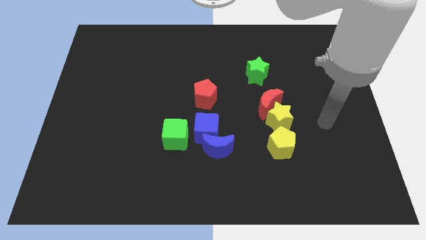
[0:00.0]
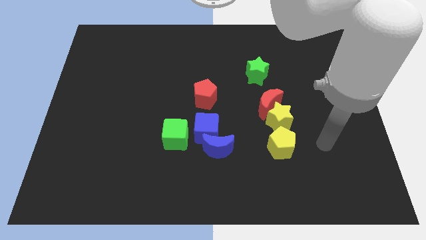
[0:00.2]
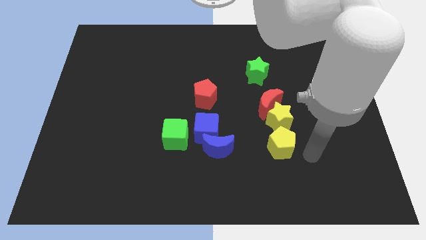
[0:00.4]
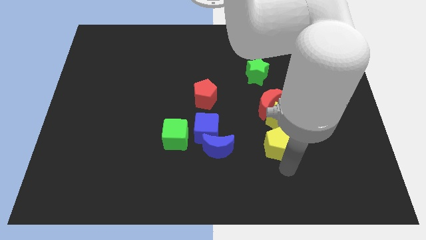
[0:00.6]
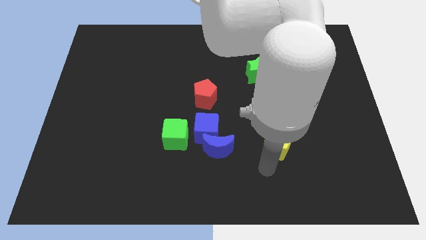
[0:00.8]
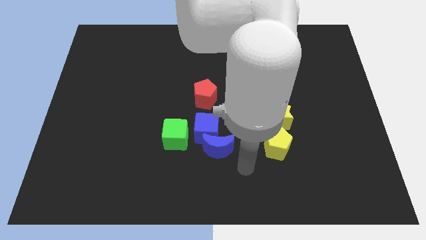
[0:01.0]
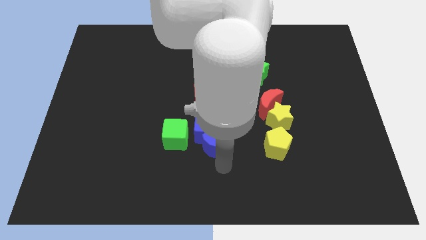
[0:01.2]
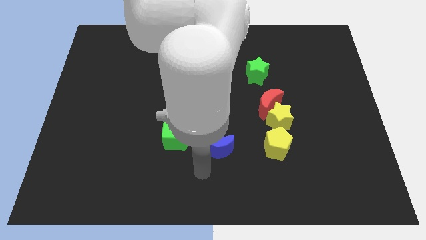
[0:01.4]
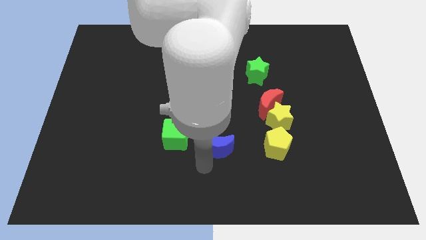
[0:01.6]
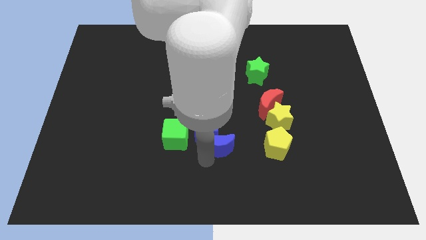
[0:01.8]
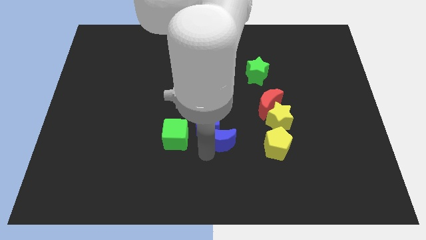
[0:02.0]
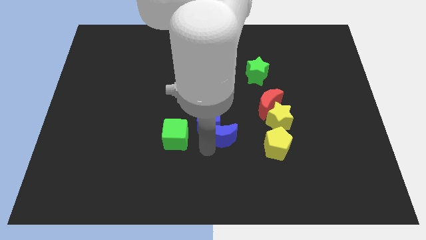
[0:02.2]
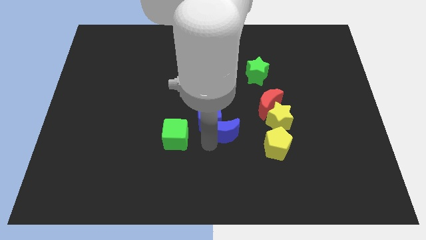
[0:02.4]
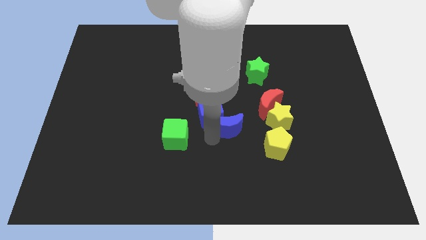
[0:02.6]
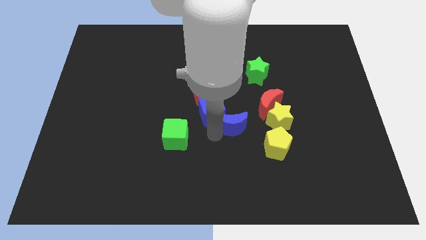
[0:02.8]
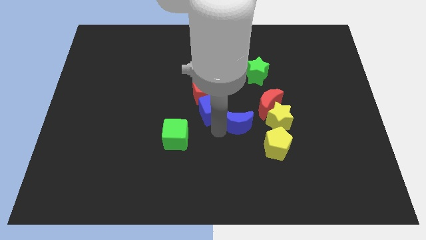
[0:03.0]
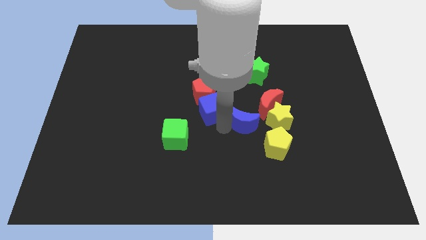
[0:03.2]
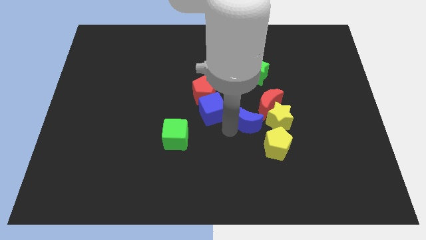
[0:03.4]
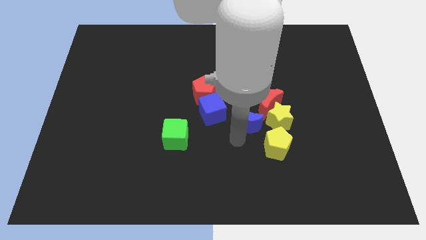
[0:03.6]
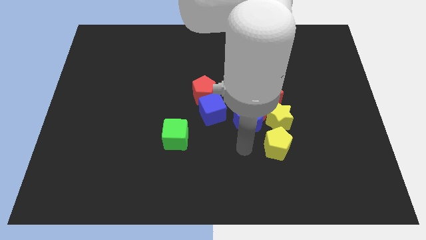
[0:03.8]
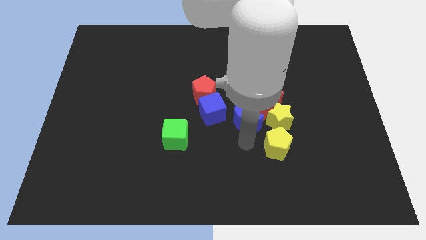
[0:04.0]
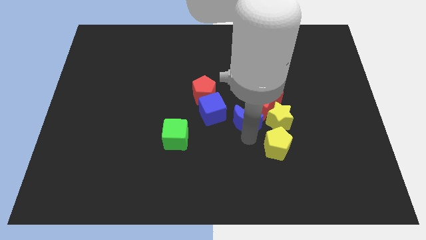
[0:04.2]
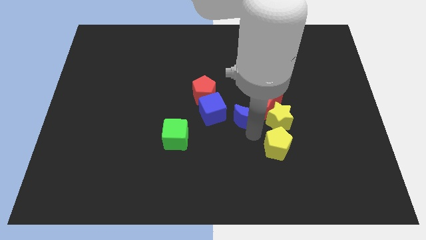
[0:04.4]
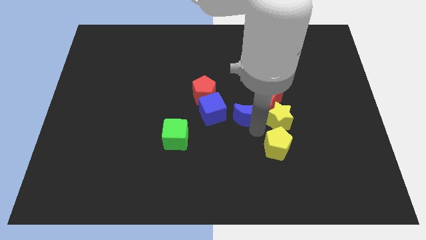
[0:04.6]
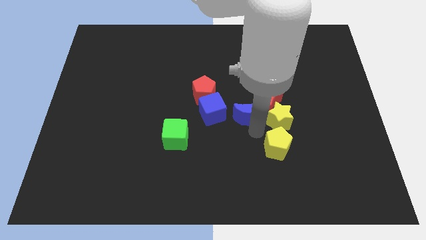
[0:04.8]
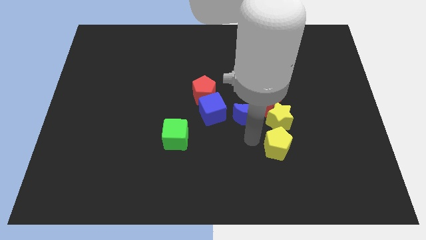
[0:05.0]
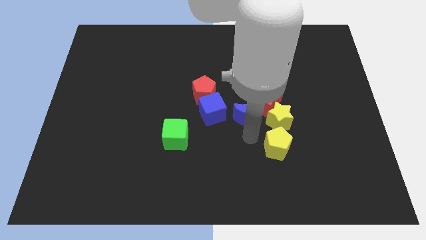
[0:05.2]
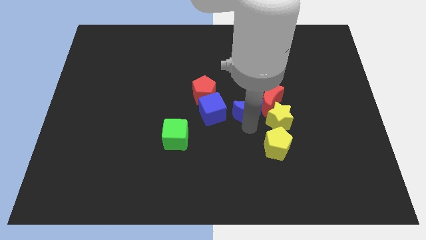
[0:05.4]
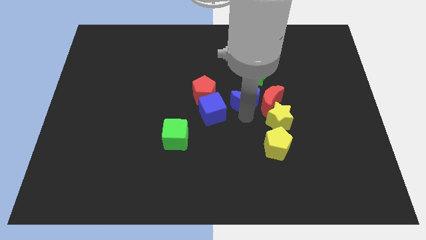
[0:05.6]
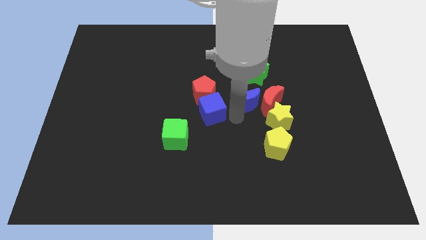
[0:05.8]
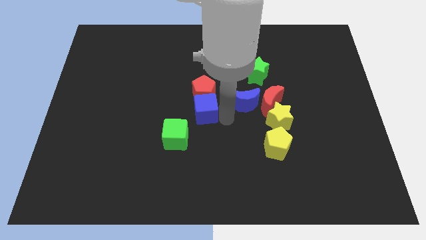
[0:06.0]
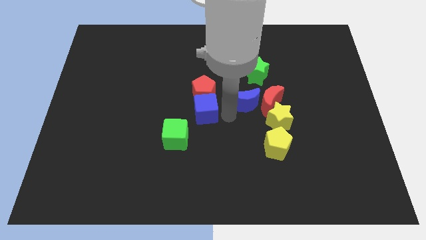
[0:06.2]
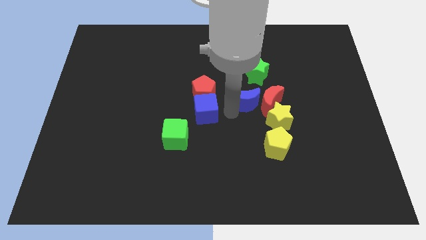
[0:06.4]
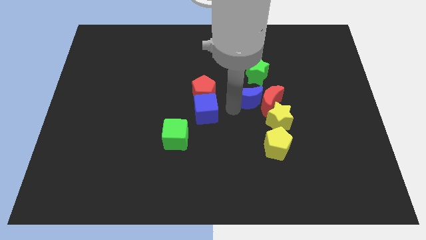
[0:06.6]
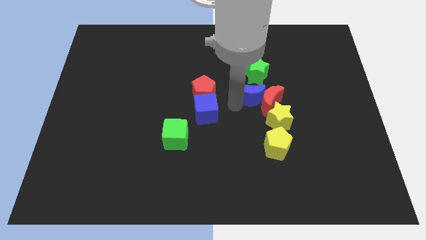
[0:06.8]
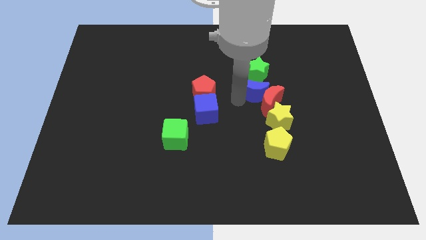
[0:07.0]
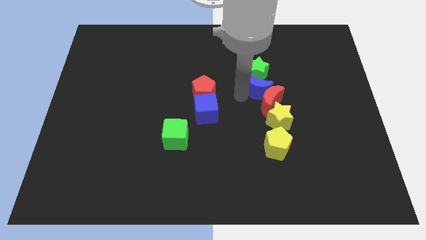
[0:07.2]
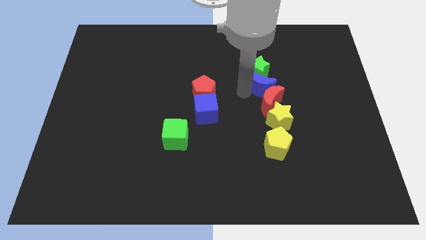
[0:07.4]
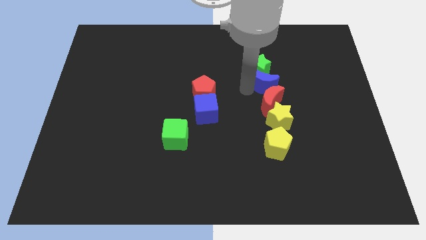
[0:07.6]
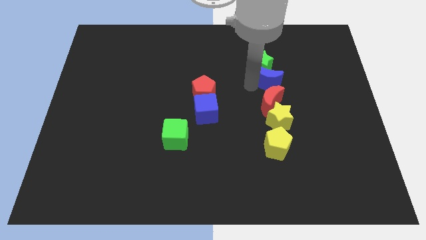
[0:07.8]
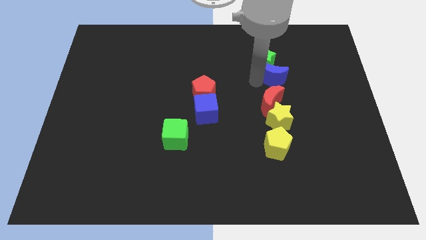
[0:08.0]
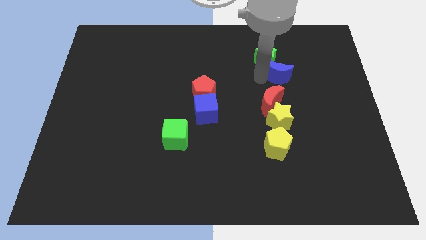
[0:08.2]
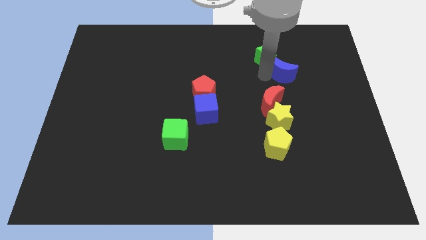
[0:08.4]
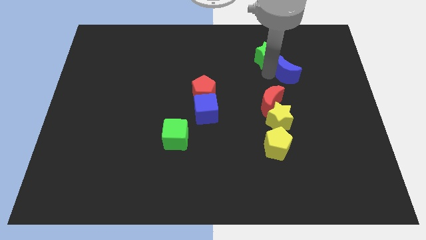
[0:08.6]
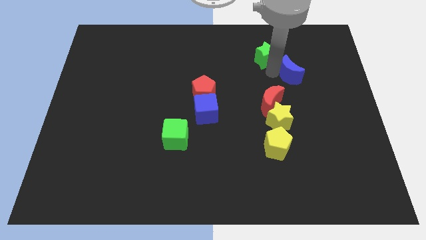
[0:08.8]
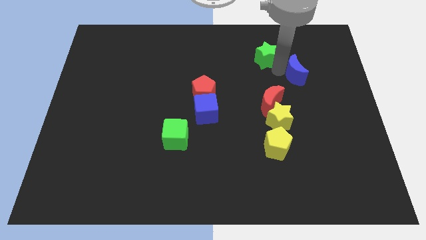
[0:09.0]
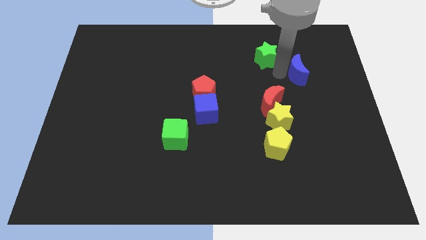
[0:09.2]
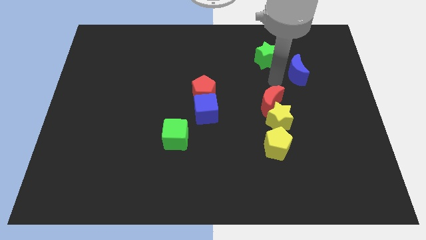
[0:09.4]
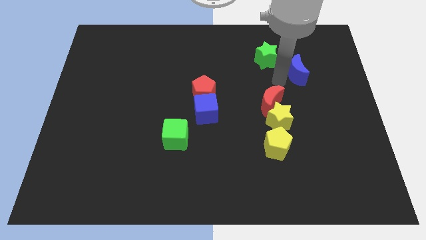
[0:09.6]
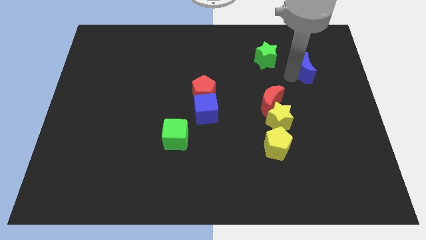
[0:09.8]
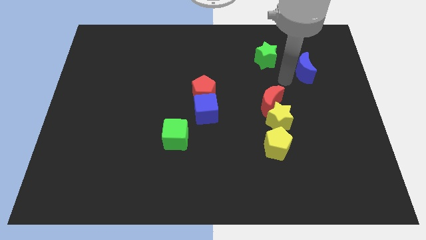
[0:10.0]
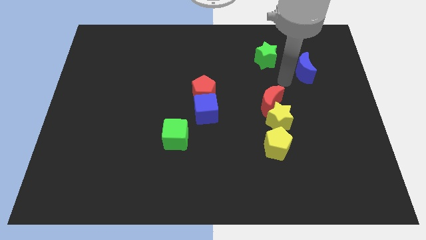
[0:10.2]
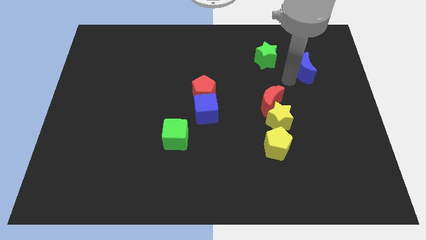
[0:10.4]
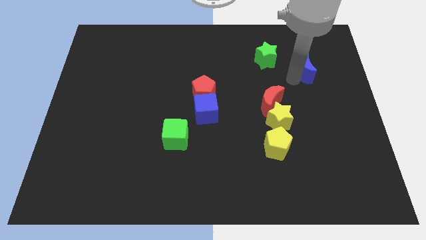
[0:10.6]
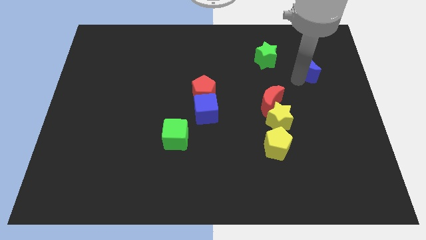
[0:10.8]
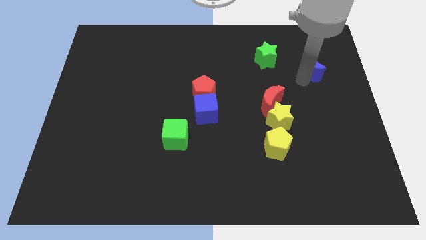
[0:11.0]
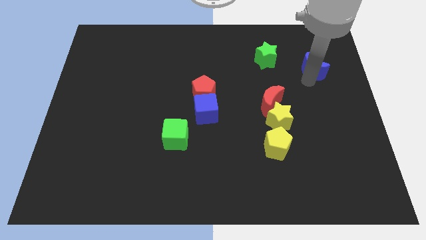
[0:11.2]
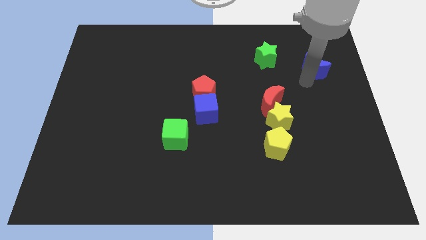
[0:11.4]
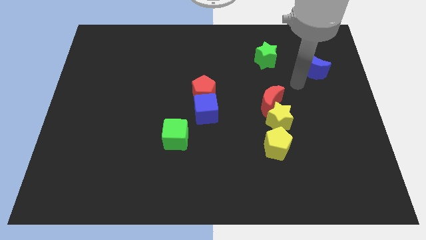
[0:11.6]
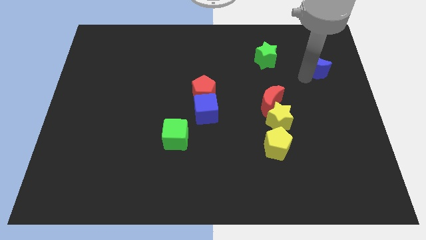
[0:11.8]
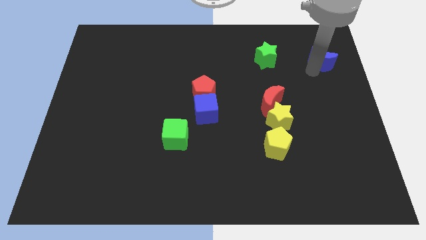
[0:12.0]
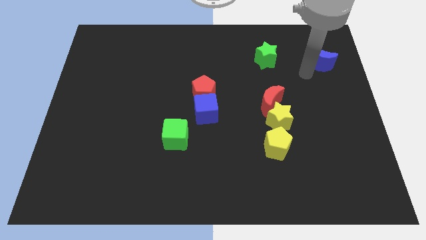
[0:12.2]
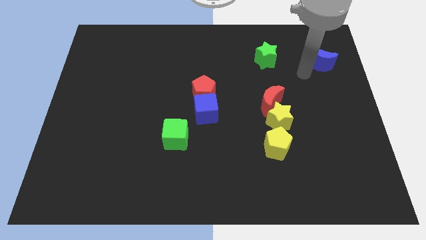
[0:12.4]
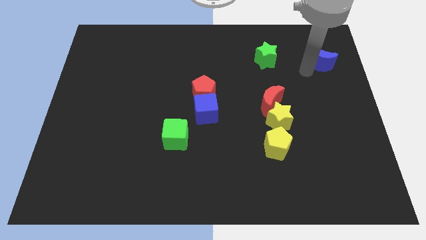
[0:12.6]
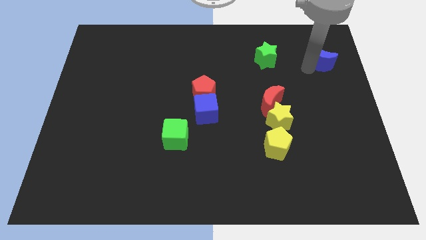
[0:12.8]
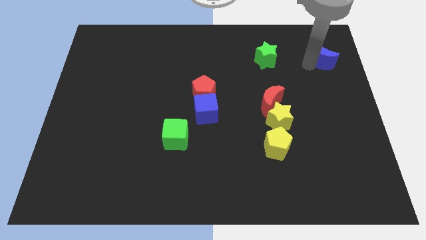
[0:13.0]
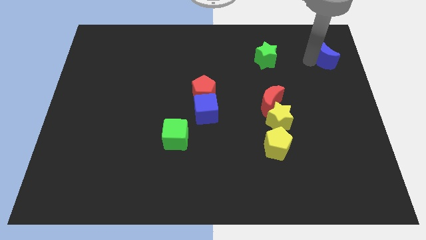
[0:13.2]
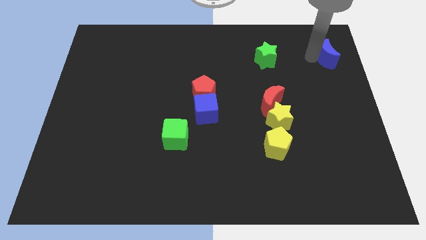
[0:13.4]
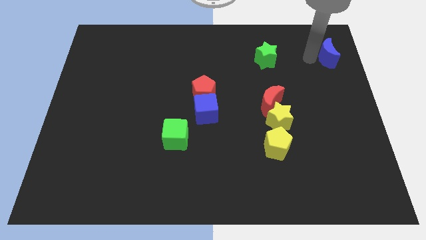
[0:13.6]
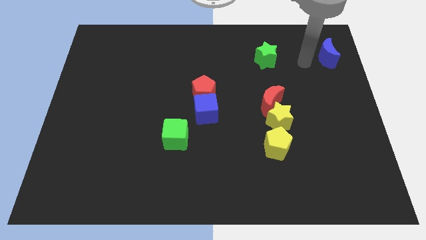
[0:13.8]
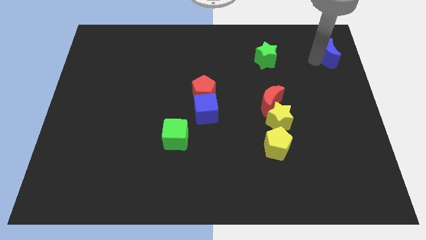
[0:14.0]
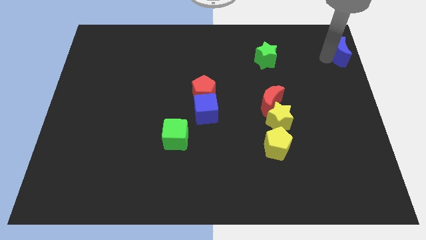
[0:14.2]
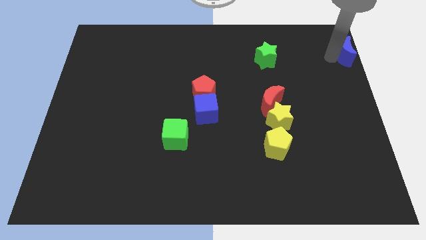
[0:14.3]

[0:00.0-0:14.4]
put the blue moon to the top right

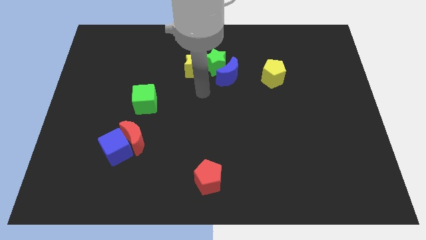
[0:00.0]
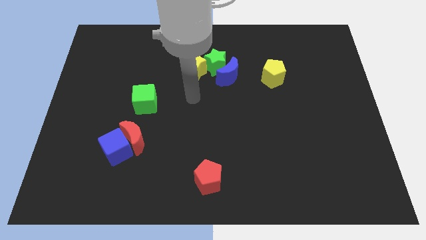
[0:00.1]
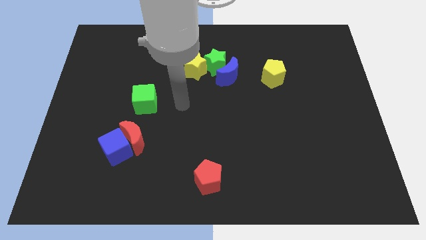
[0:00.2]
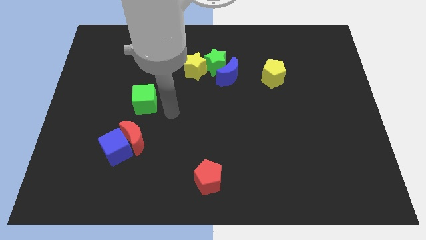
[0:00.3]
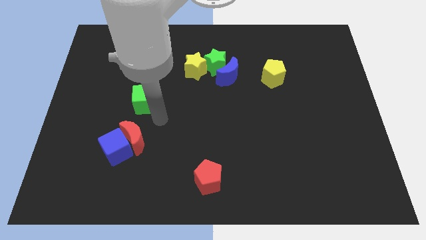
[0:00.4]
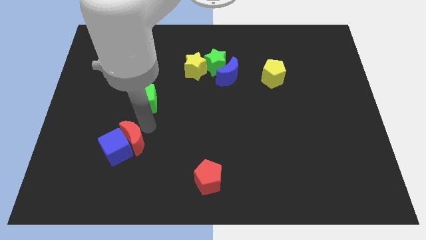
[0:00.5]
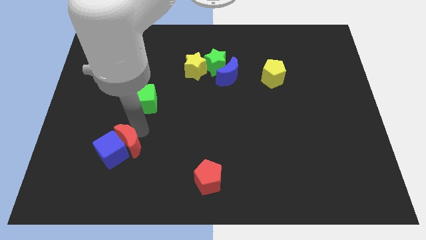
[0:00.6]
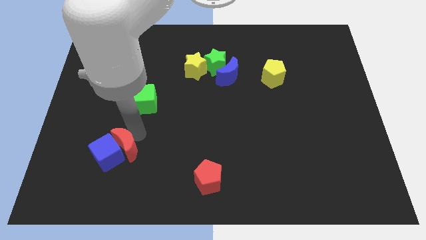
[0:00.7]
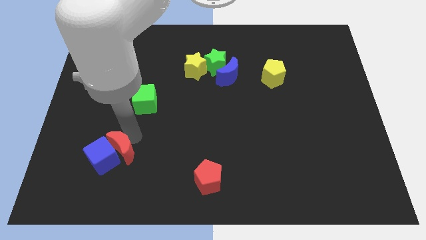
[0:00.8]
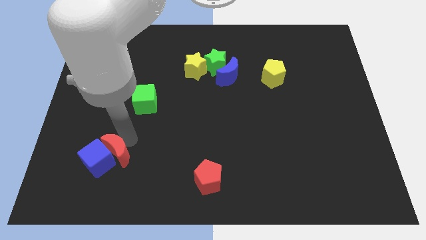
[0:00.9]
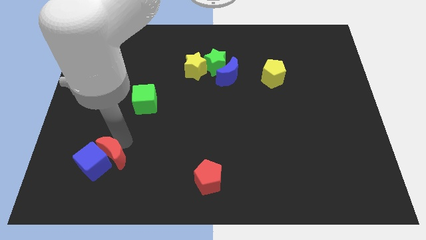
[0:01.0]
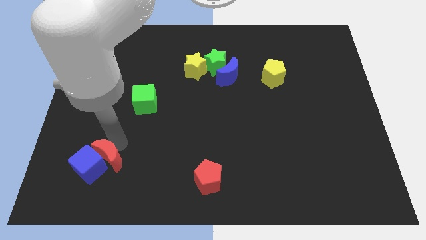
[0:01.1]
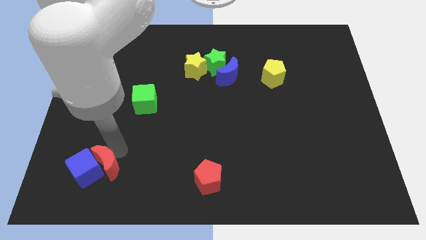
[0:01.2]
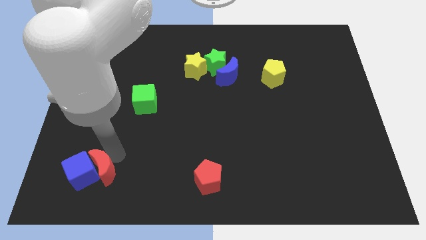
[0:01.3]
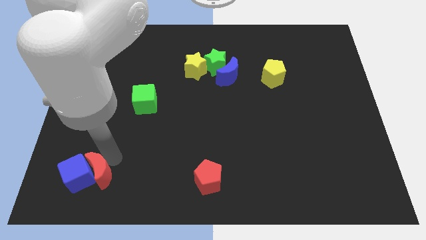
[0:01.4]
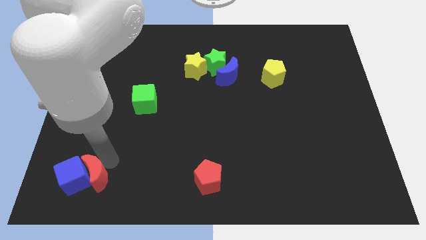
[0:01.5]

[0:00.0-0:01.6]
move the blue cube to the lower left corner
